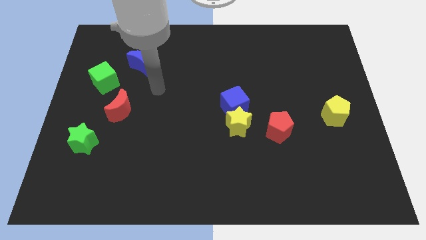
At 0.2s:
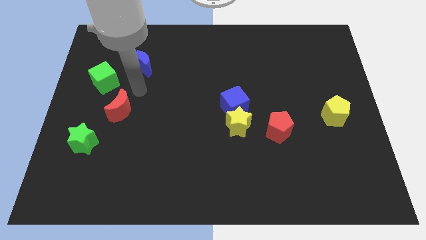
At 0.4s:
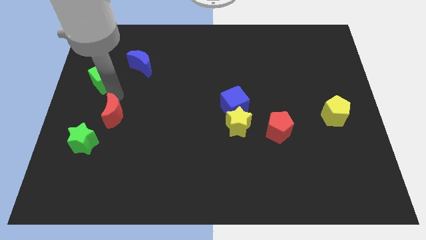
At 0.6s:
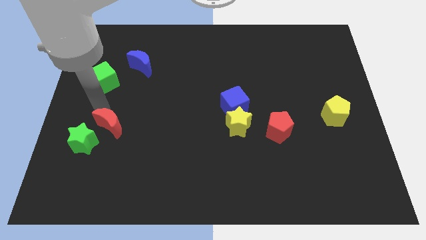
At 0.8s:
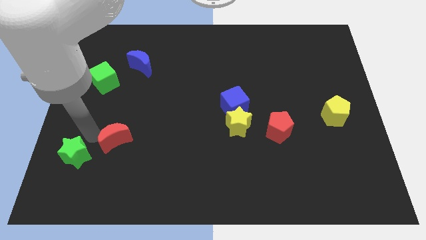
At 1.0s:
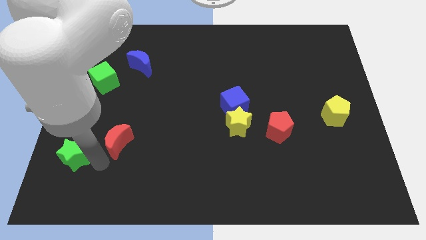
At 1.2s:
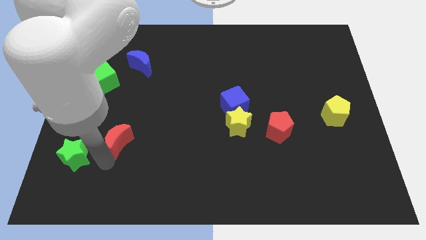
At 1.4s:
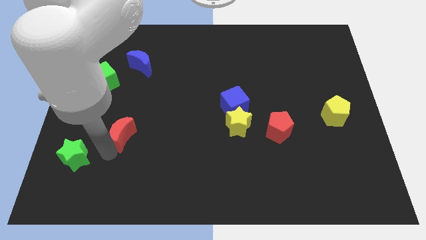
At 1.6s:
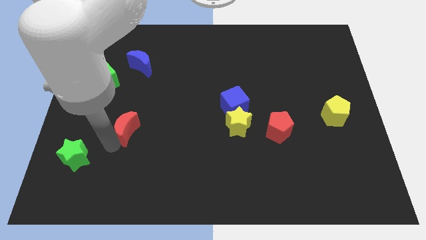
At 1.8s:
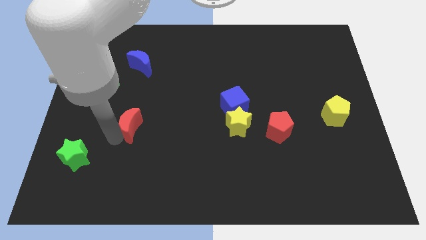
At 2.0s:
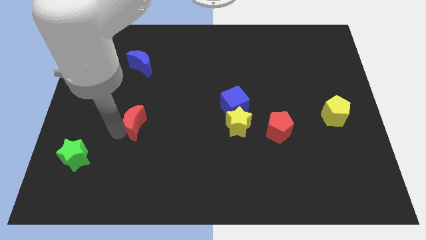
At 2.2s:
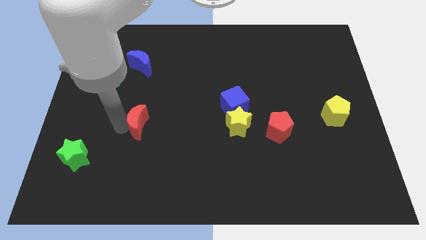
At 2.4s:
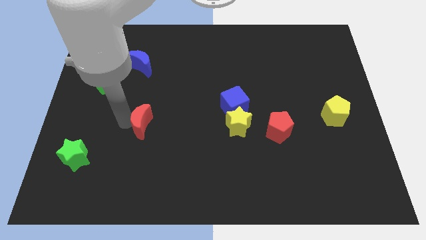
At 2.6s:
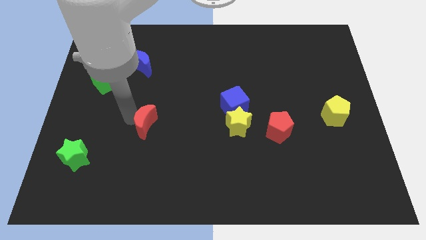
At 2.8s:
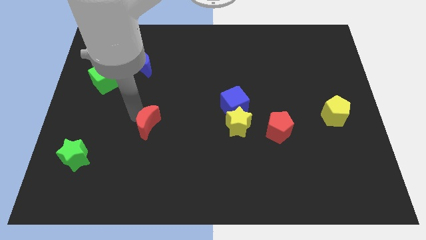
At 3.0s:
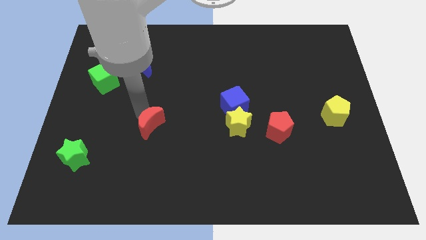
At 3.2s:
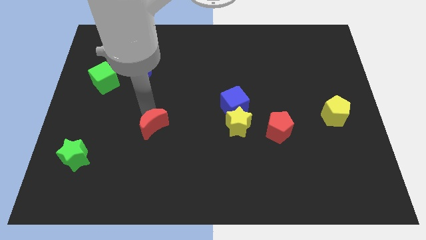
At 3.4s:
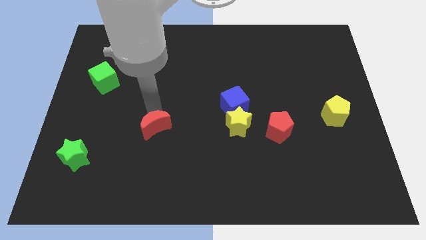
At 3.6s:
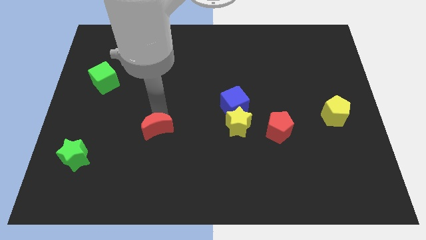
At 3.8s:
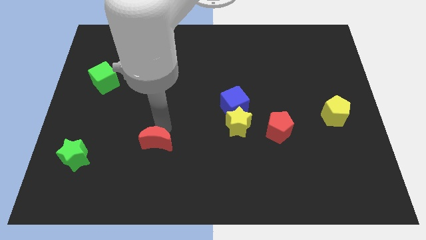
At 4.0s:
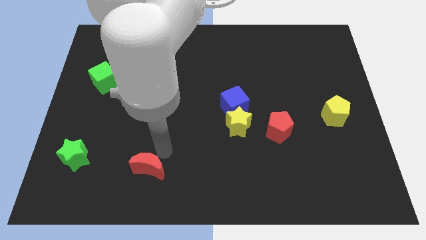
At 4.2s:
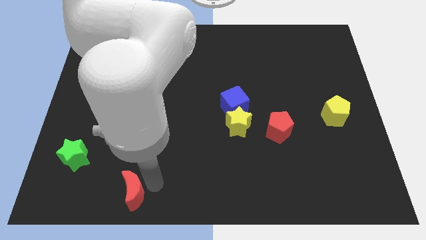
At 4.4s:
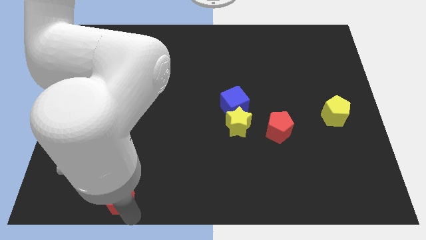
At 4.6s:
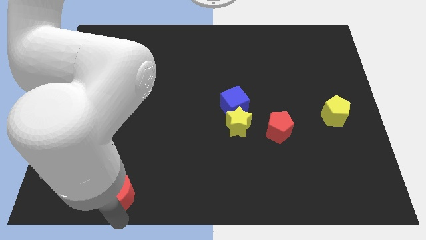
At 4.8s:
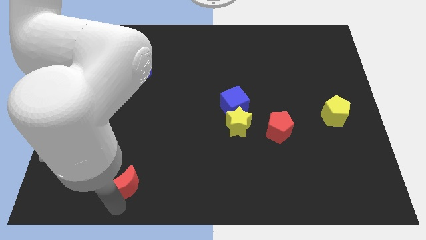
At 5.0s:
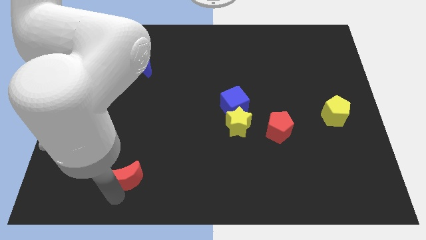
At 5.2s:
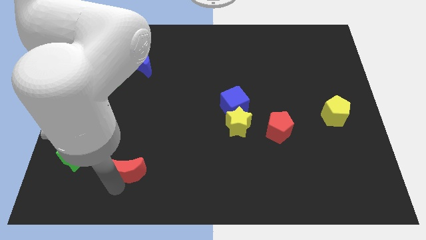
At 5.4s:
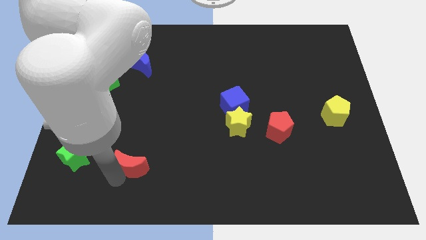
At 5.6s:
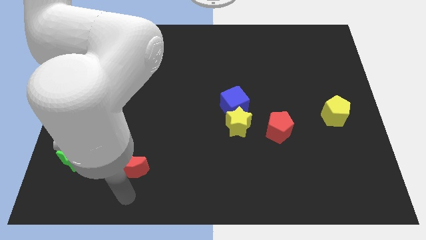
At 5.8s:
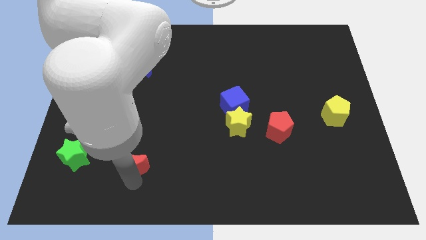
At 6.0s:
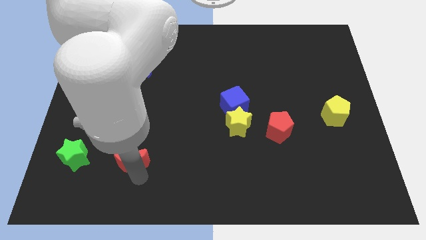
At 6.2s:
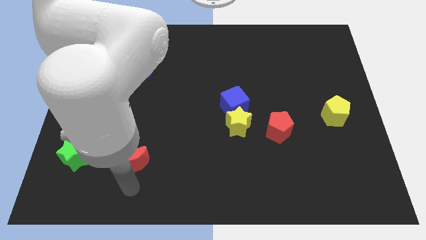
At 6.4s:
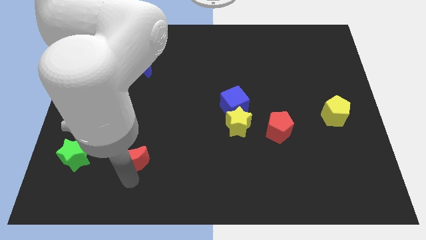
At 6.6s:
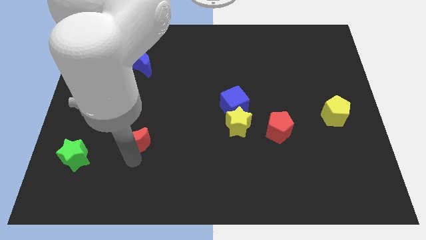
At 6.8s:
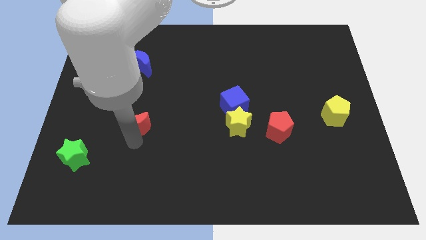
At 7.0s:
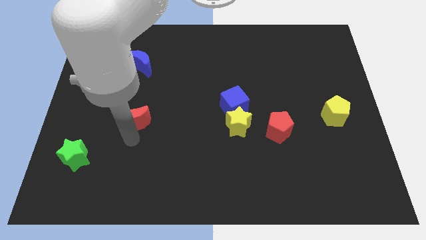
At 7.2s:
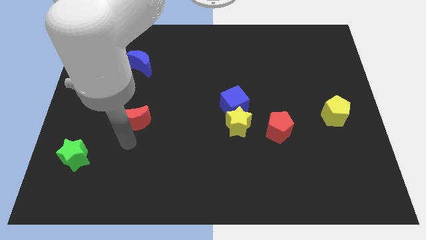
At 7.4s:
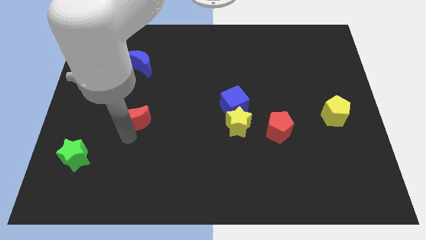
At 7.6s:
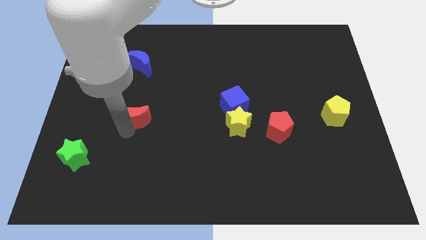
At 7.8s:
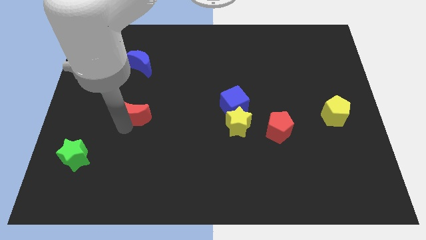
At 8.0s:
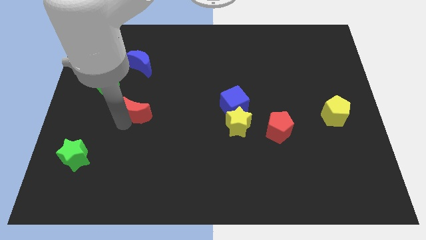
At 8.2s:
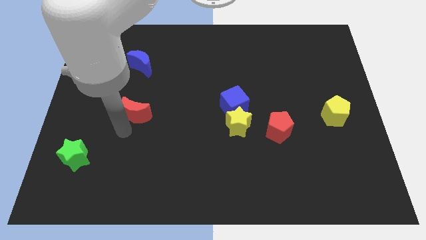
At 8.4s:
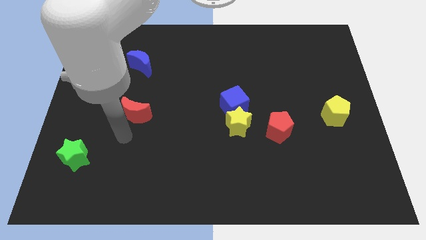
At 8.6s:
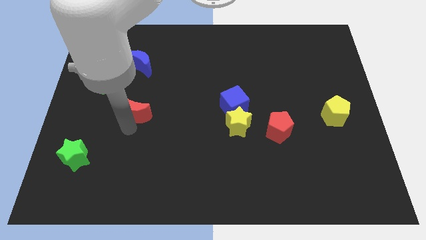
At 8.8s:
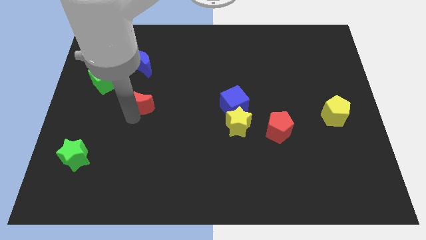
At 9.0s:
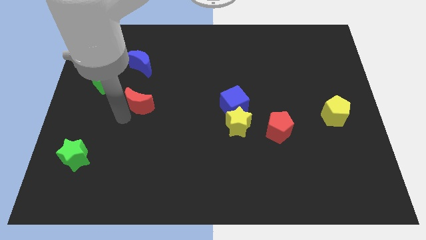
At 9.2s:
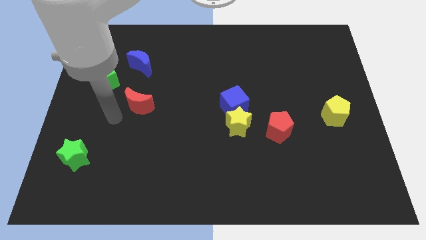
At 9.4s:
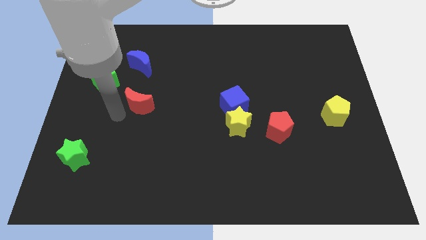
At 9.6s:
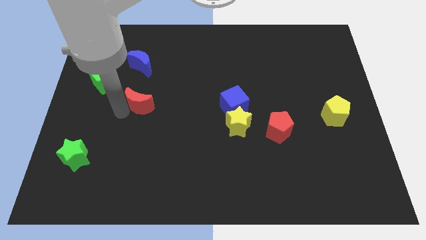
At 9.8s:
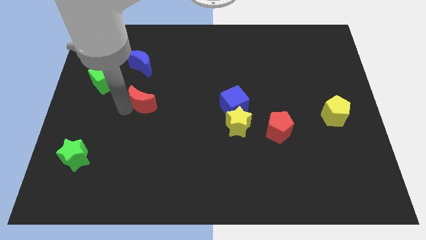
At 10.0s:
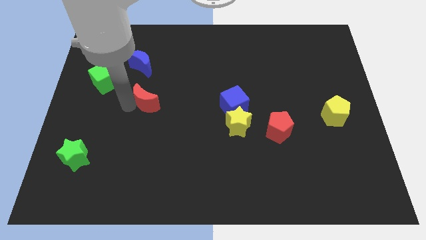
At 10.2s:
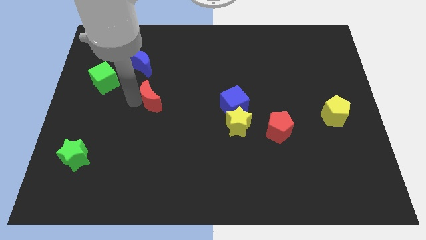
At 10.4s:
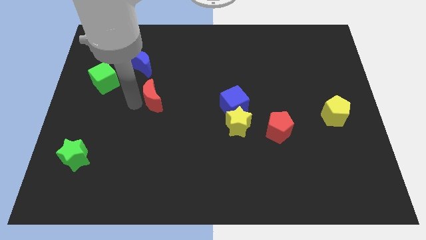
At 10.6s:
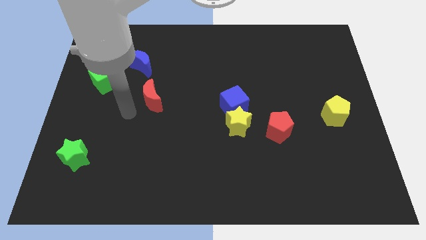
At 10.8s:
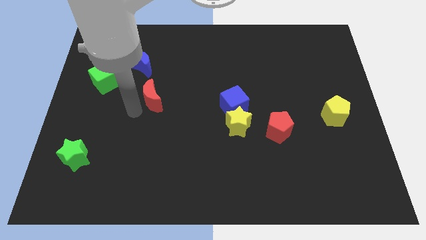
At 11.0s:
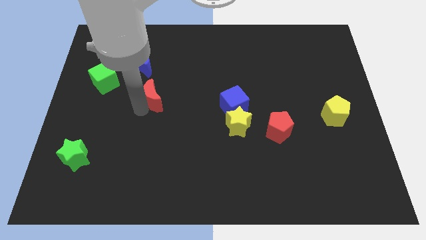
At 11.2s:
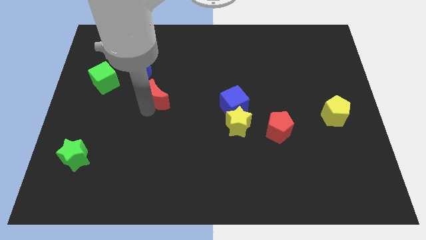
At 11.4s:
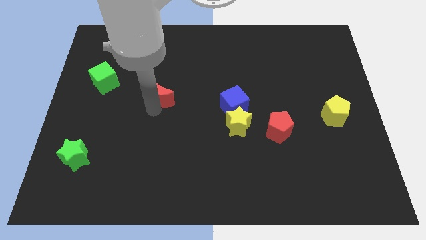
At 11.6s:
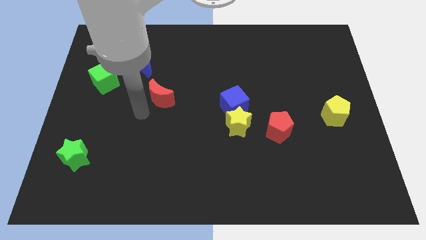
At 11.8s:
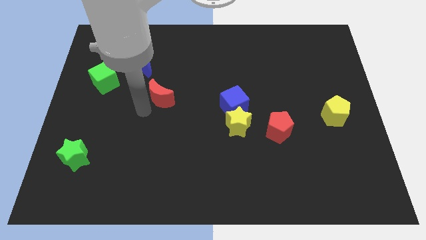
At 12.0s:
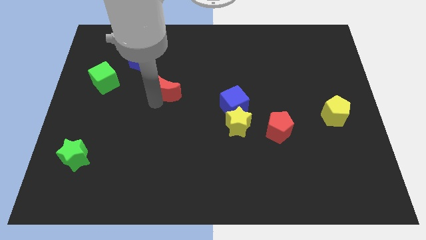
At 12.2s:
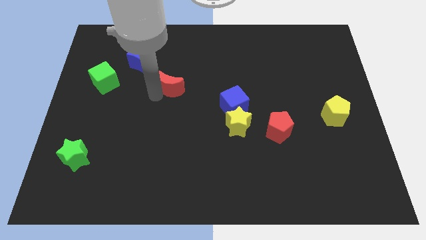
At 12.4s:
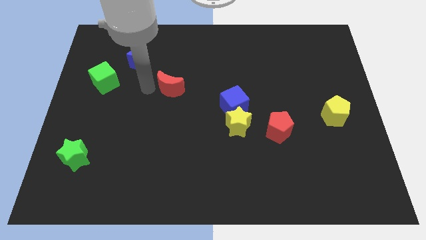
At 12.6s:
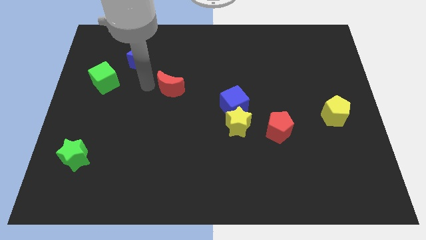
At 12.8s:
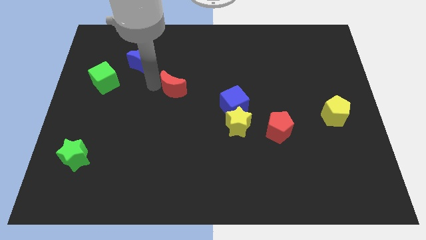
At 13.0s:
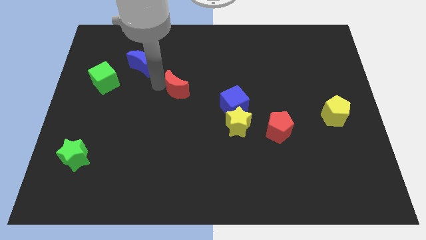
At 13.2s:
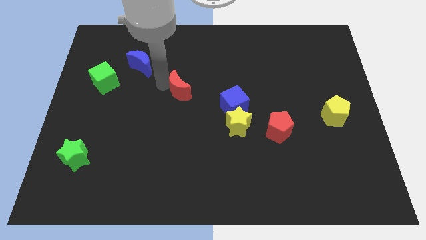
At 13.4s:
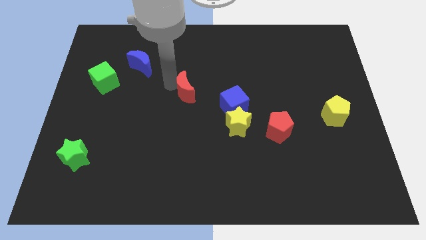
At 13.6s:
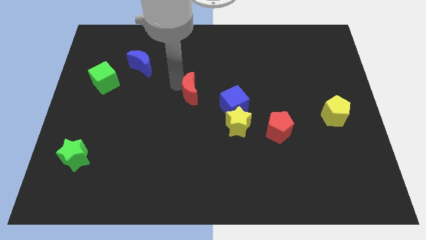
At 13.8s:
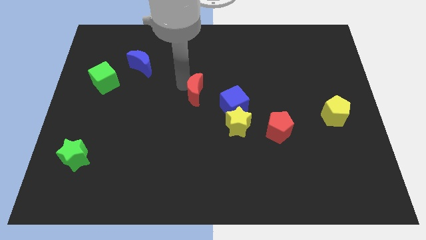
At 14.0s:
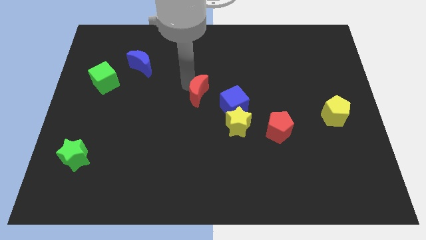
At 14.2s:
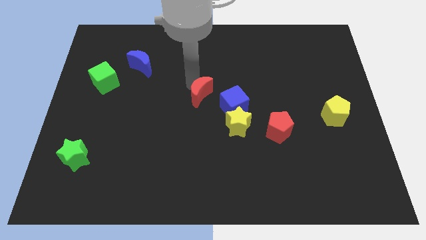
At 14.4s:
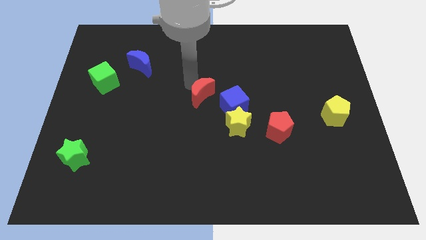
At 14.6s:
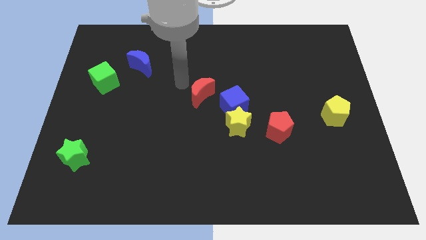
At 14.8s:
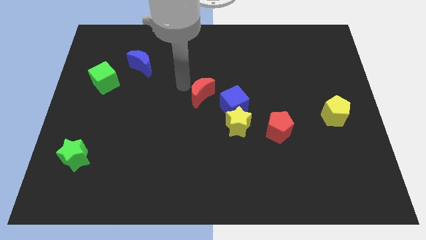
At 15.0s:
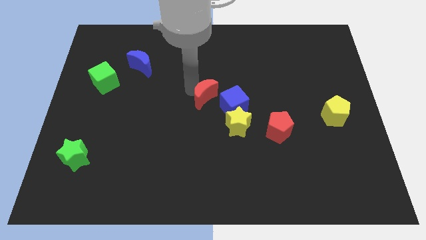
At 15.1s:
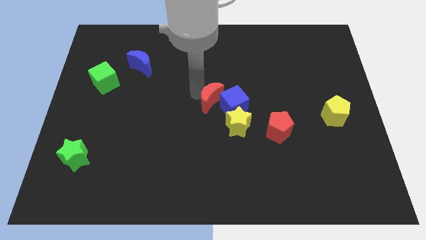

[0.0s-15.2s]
slide the red moon to the blue cube
